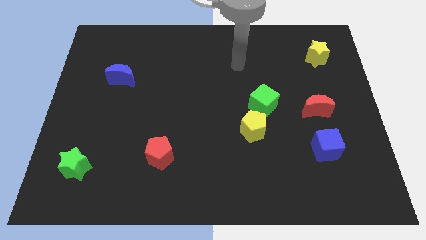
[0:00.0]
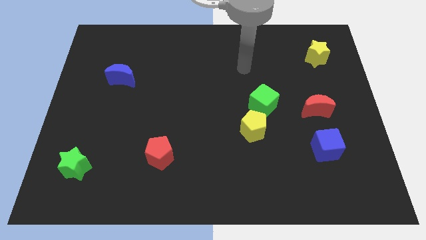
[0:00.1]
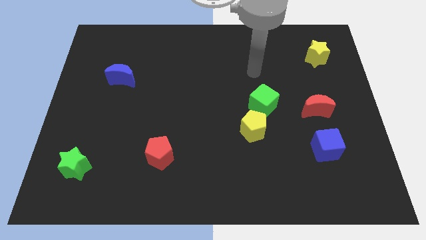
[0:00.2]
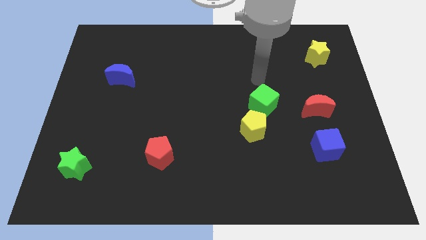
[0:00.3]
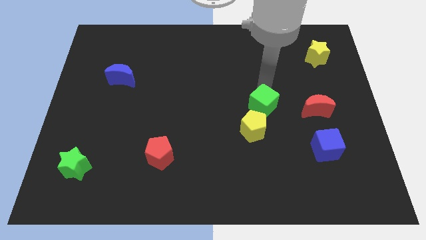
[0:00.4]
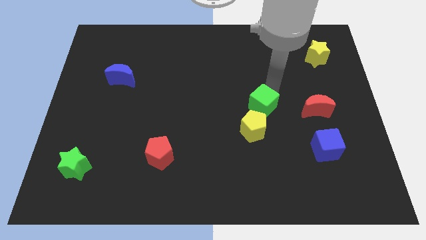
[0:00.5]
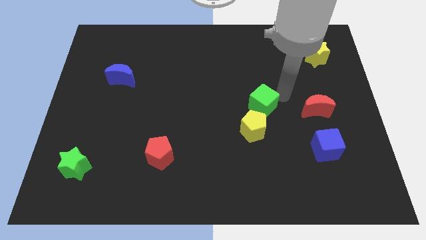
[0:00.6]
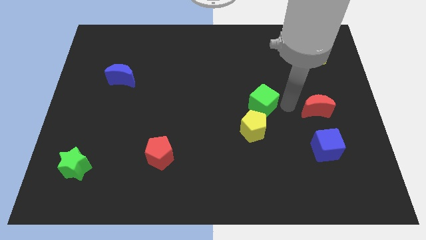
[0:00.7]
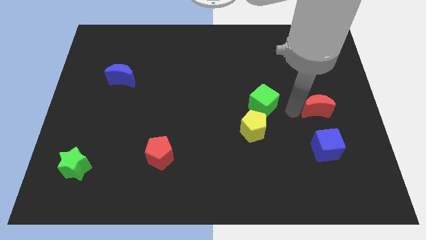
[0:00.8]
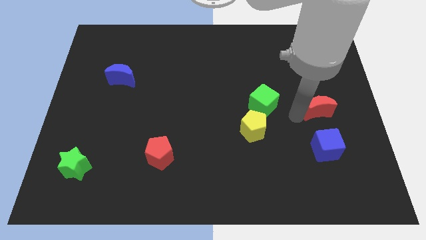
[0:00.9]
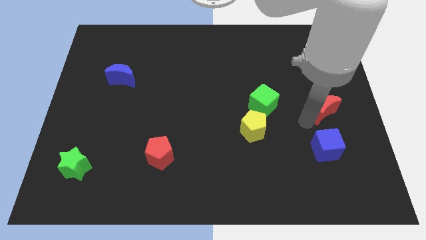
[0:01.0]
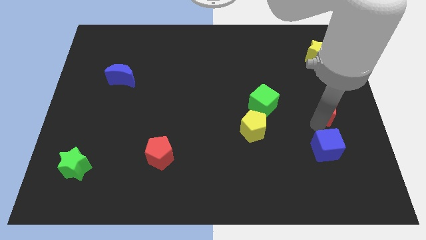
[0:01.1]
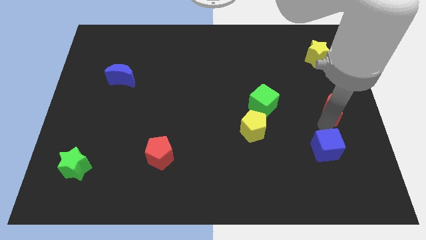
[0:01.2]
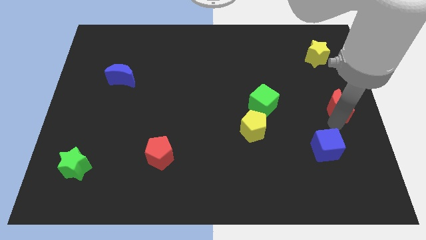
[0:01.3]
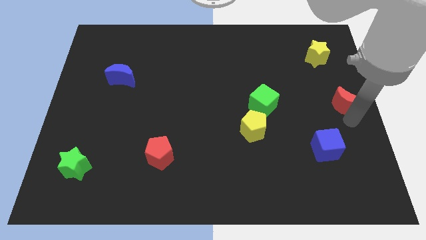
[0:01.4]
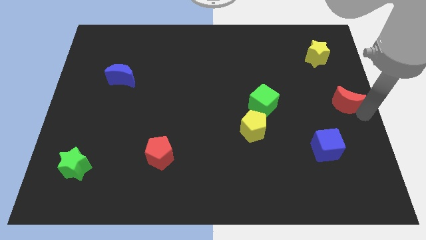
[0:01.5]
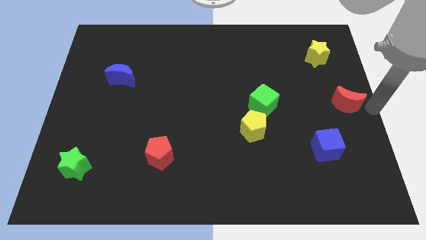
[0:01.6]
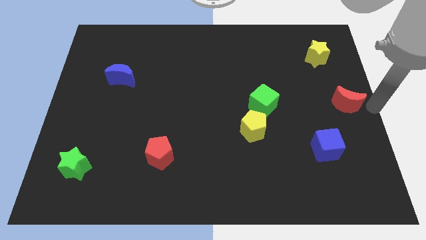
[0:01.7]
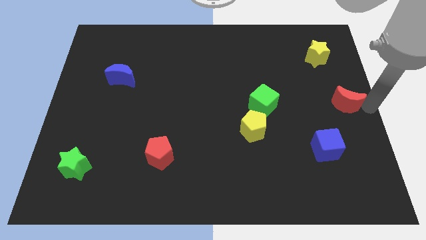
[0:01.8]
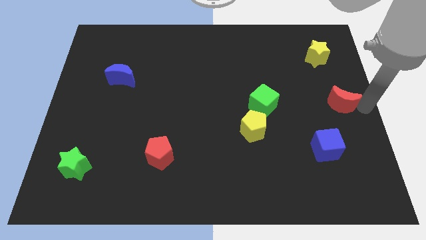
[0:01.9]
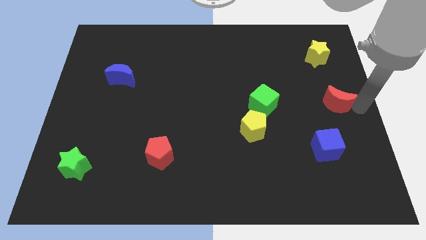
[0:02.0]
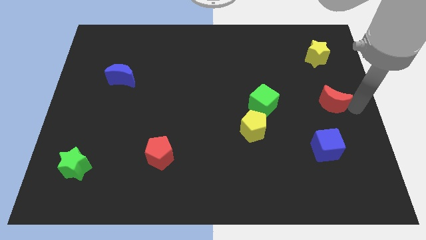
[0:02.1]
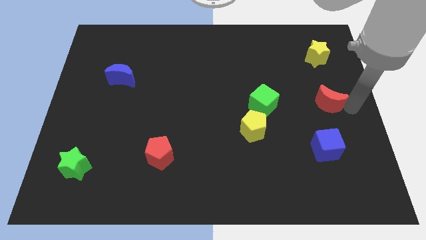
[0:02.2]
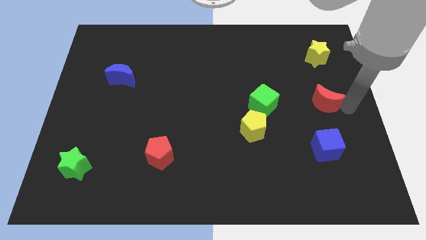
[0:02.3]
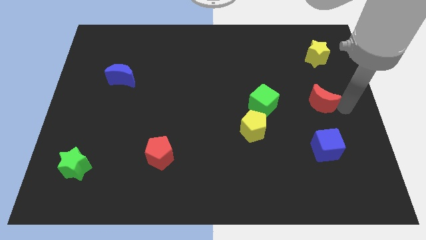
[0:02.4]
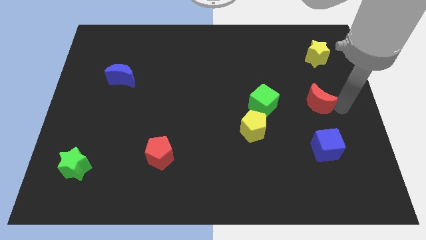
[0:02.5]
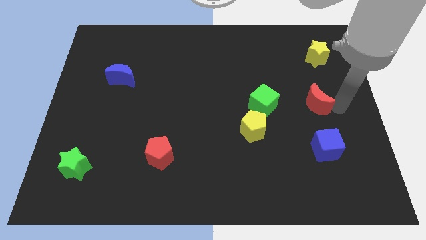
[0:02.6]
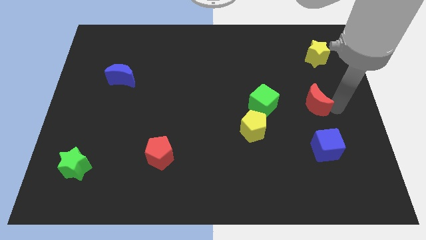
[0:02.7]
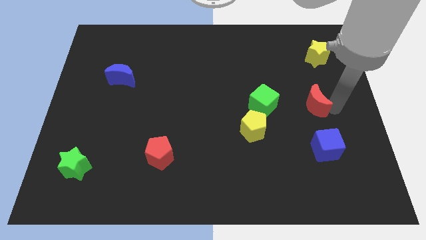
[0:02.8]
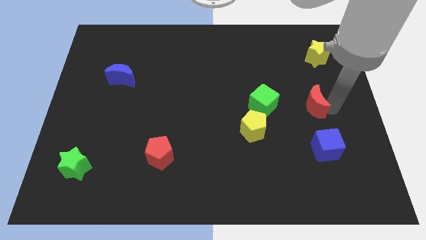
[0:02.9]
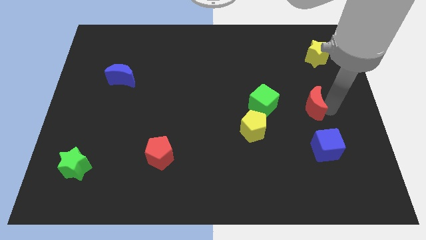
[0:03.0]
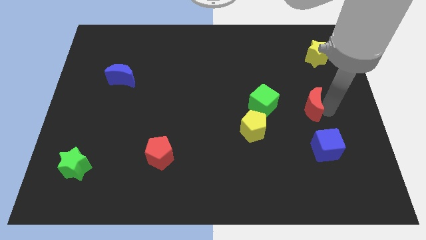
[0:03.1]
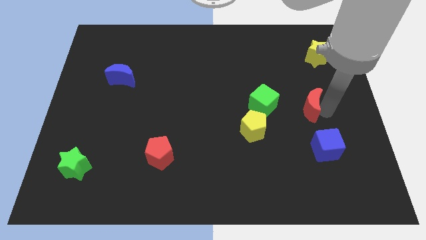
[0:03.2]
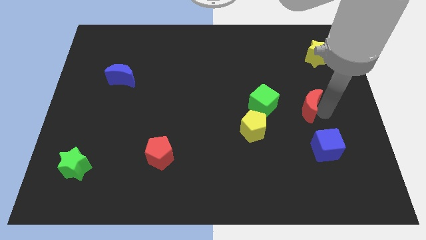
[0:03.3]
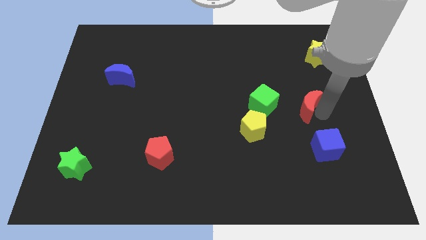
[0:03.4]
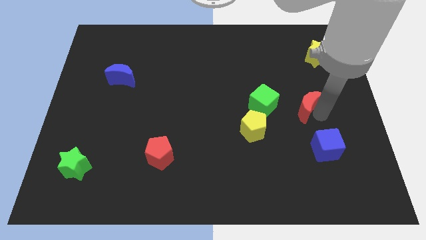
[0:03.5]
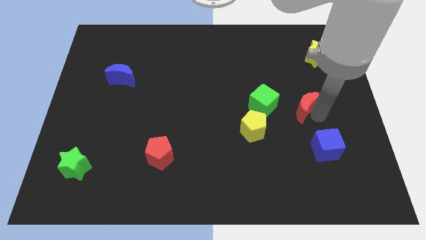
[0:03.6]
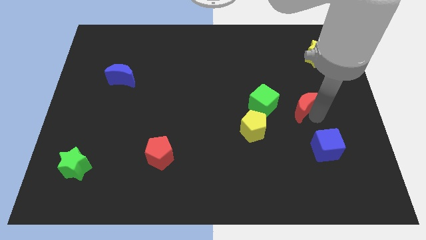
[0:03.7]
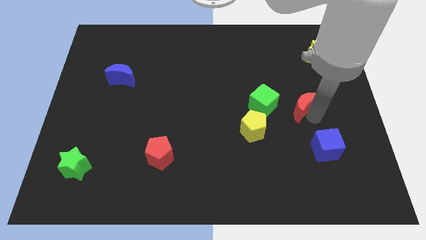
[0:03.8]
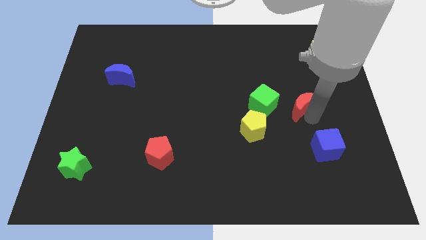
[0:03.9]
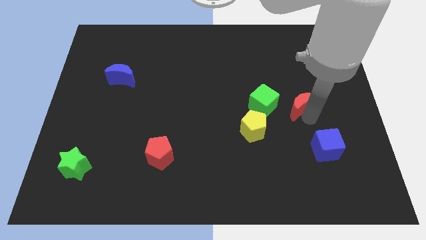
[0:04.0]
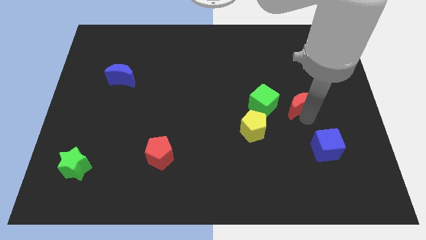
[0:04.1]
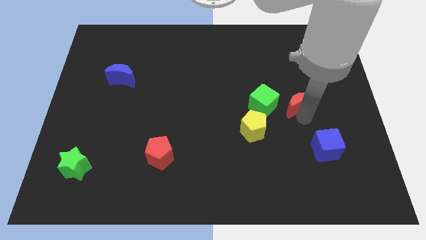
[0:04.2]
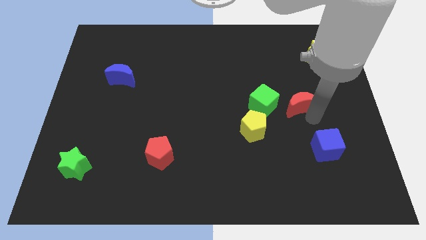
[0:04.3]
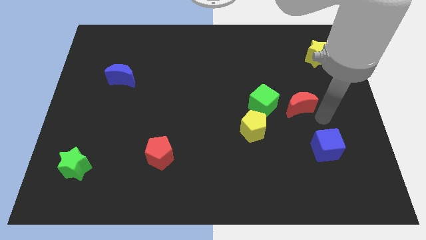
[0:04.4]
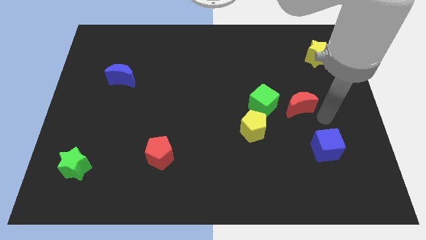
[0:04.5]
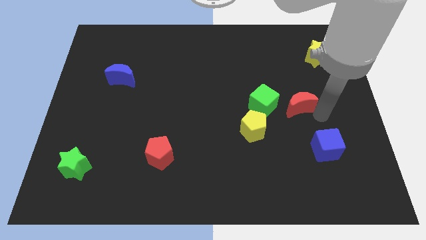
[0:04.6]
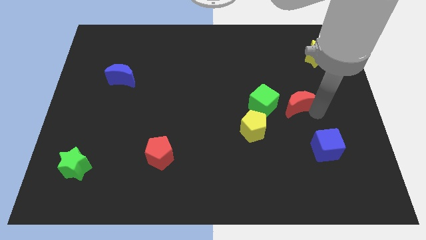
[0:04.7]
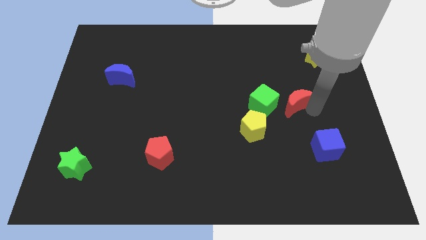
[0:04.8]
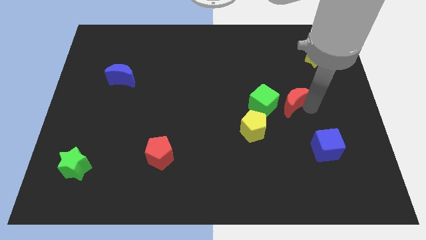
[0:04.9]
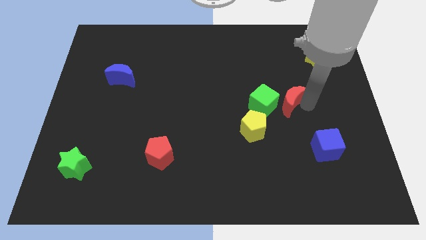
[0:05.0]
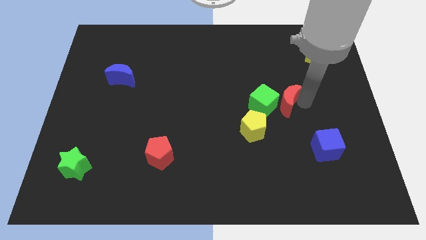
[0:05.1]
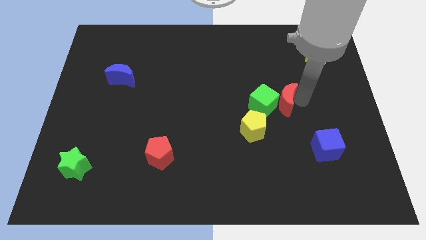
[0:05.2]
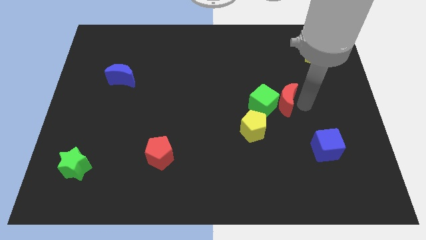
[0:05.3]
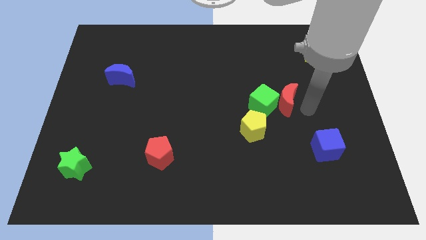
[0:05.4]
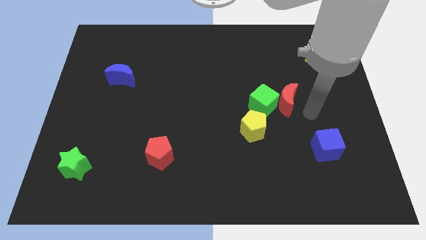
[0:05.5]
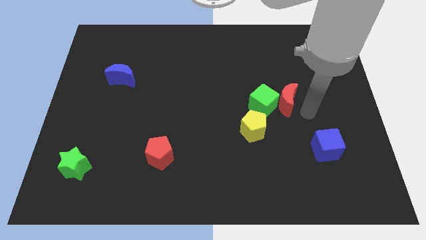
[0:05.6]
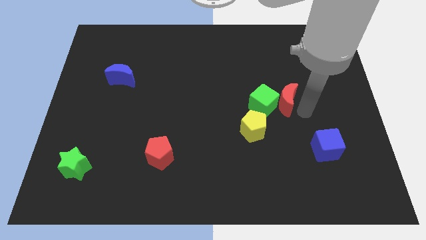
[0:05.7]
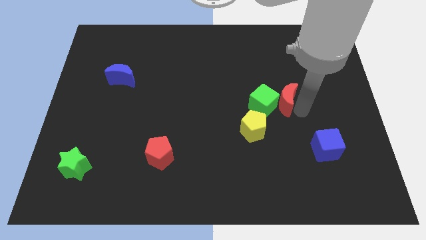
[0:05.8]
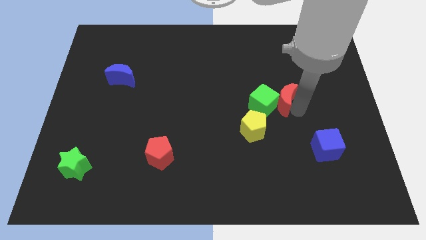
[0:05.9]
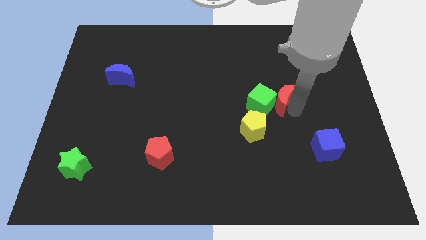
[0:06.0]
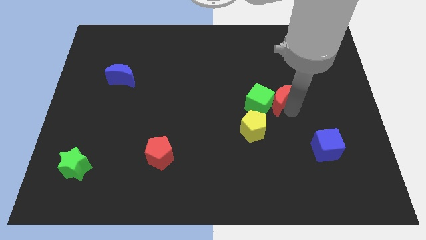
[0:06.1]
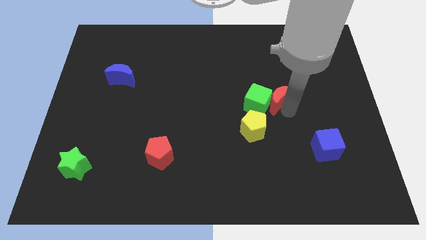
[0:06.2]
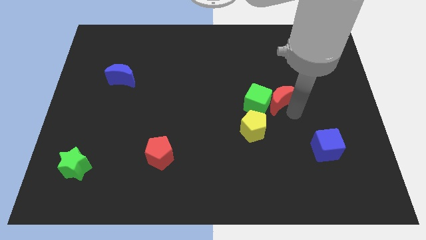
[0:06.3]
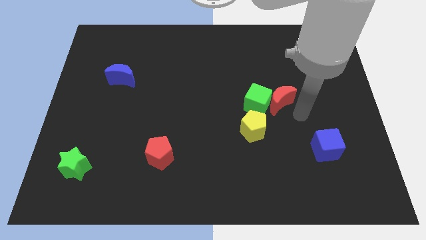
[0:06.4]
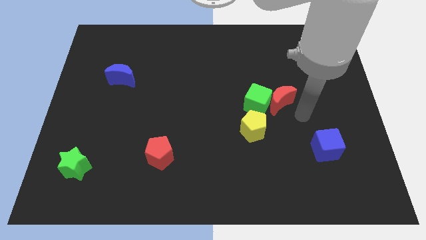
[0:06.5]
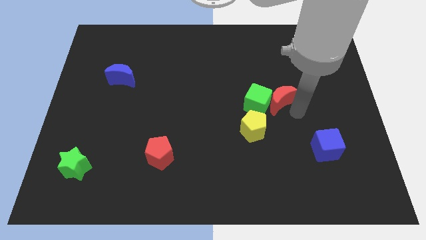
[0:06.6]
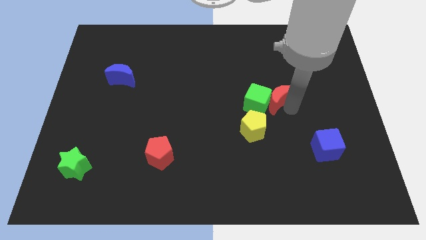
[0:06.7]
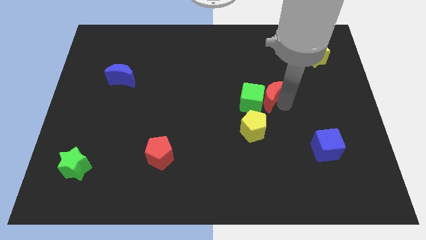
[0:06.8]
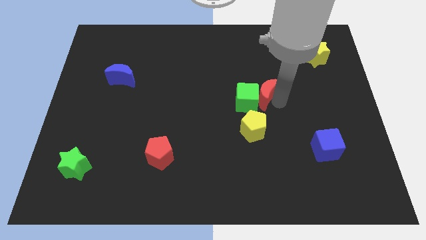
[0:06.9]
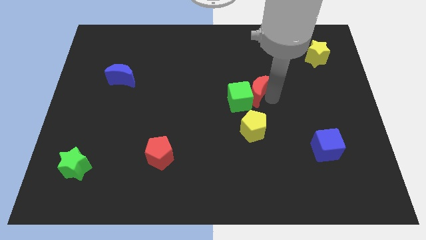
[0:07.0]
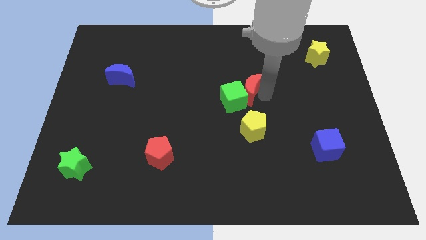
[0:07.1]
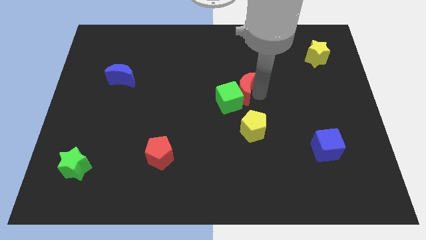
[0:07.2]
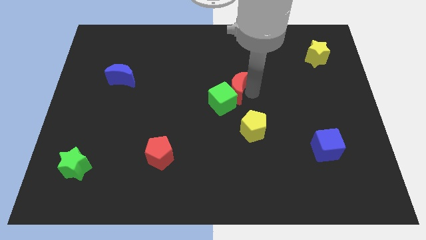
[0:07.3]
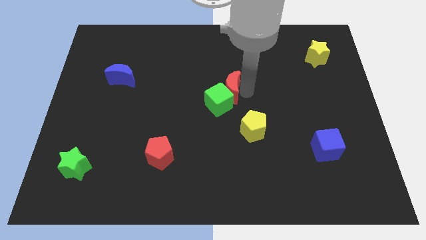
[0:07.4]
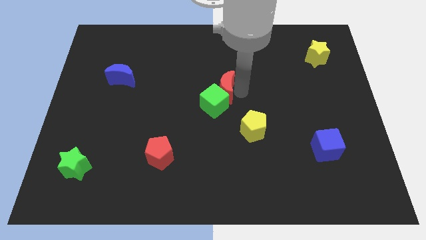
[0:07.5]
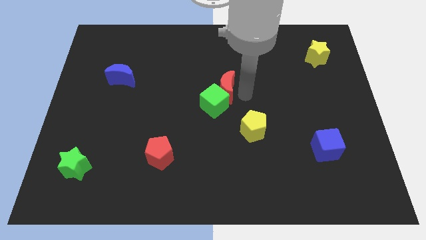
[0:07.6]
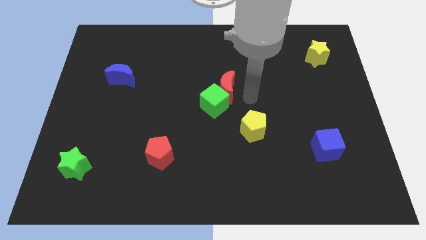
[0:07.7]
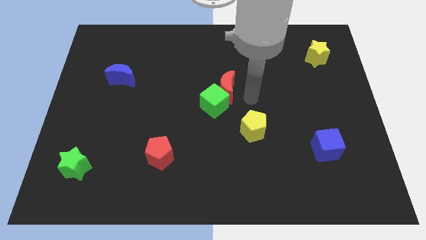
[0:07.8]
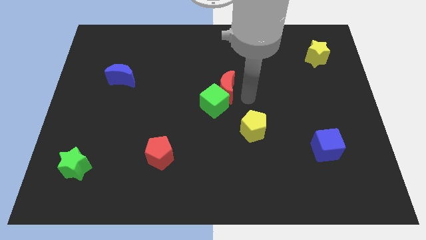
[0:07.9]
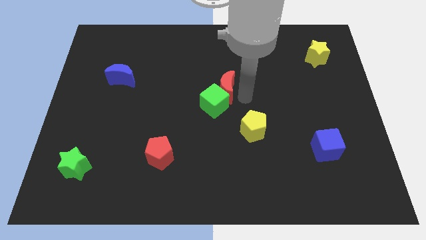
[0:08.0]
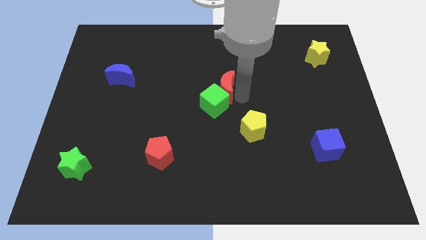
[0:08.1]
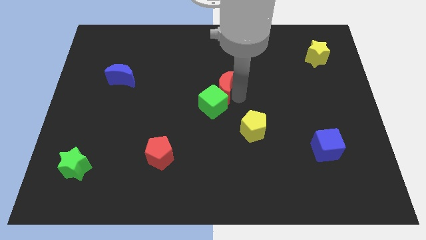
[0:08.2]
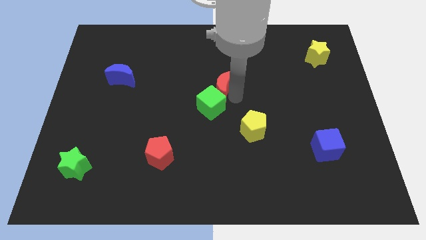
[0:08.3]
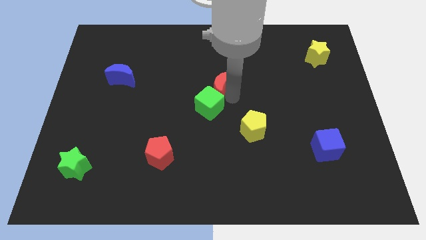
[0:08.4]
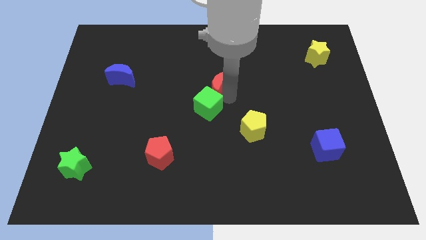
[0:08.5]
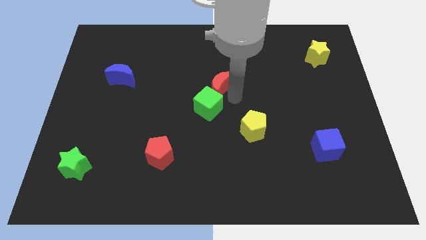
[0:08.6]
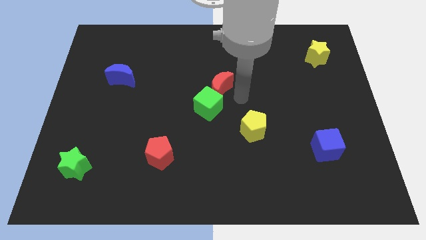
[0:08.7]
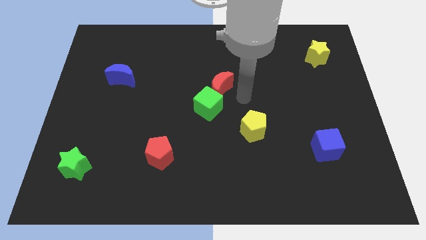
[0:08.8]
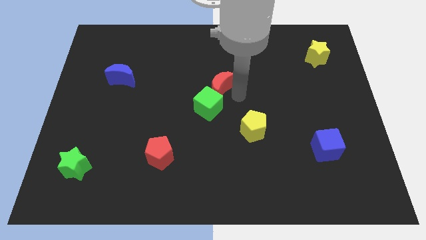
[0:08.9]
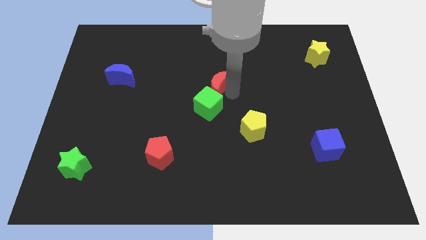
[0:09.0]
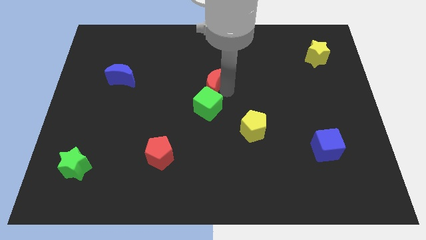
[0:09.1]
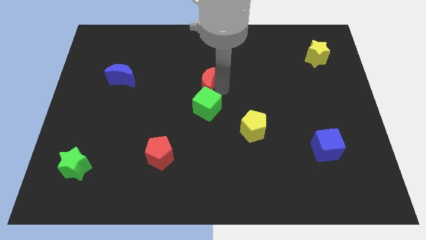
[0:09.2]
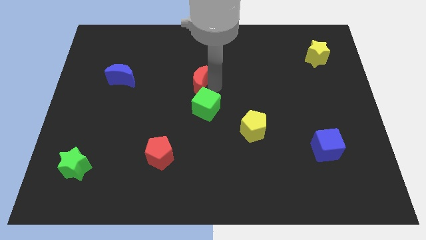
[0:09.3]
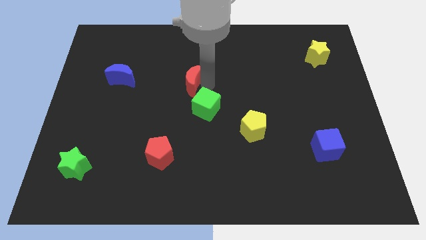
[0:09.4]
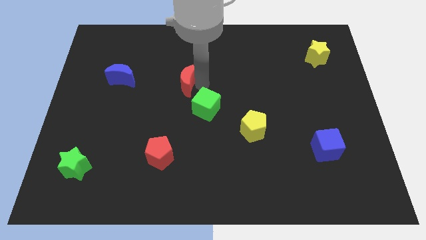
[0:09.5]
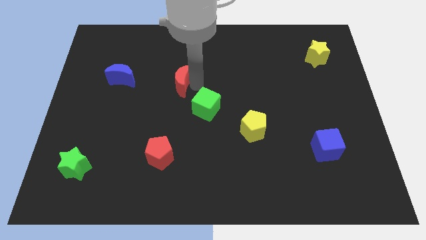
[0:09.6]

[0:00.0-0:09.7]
push the red moon right of the blue moon
